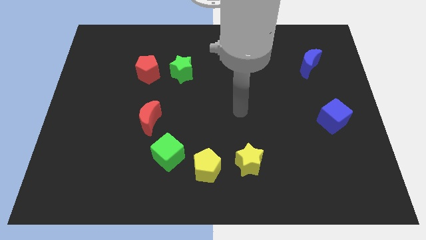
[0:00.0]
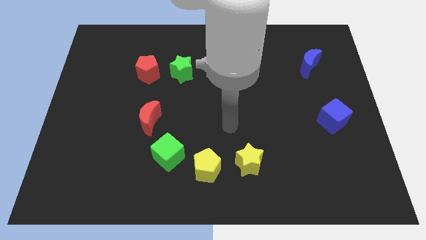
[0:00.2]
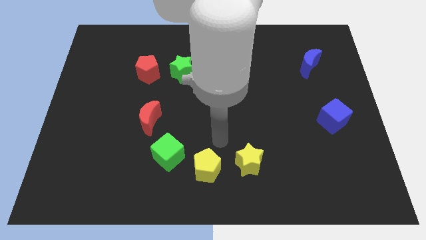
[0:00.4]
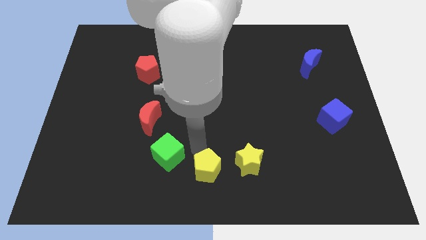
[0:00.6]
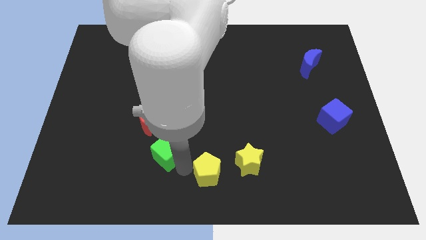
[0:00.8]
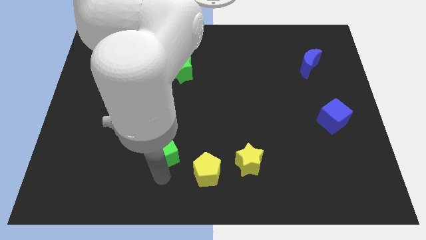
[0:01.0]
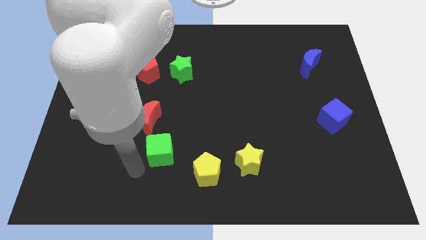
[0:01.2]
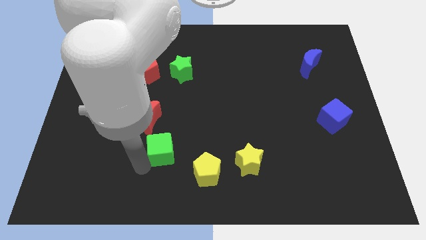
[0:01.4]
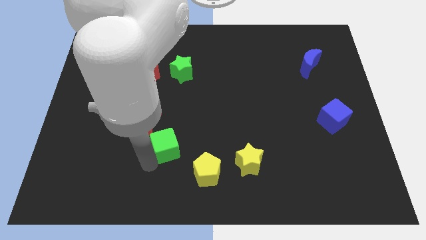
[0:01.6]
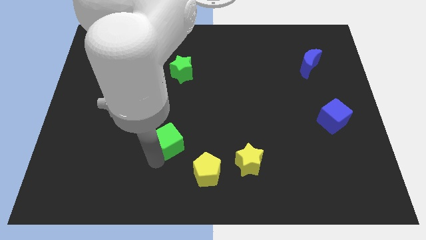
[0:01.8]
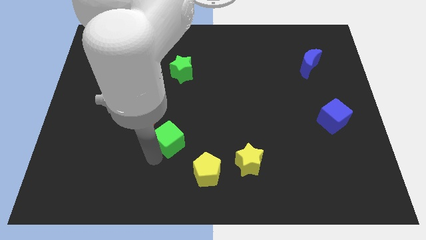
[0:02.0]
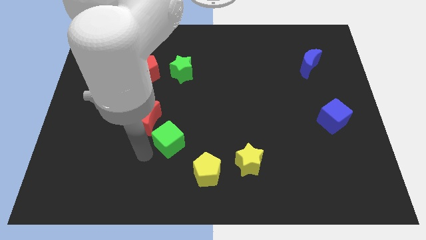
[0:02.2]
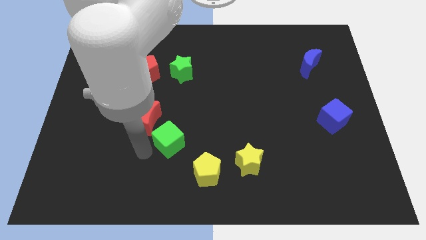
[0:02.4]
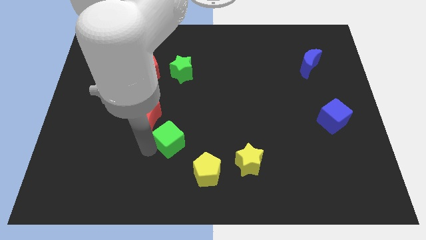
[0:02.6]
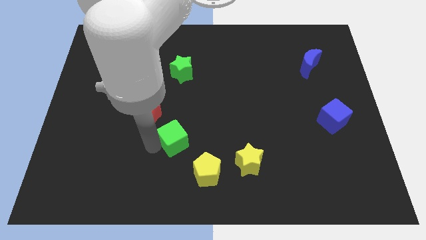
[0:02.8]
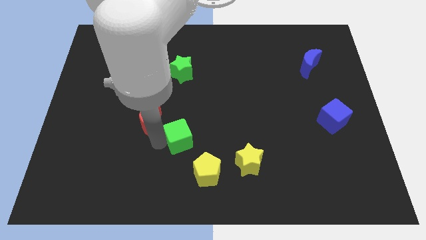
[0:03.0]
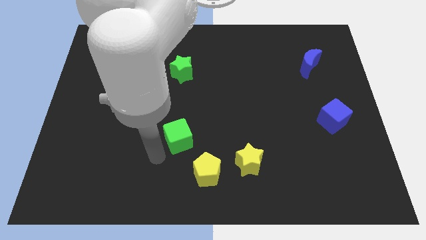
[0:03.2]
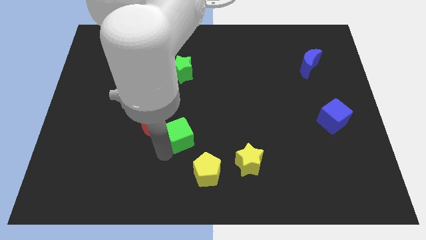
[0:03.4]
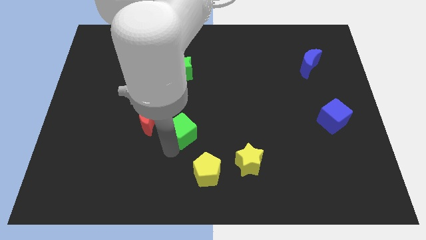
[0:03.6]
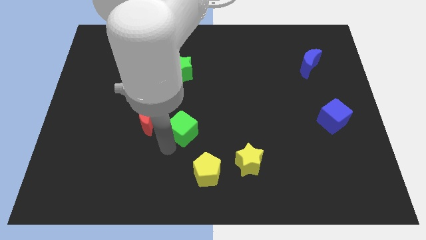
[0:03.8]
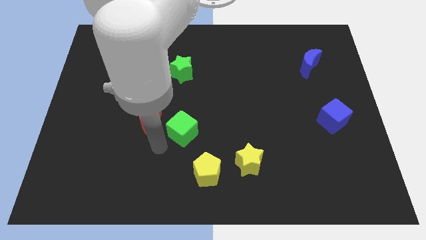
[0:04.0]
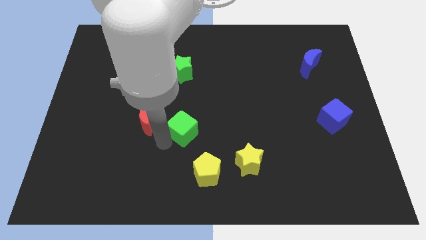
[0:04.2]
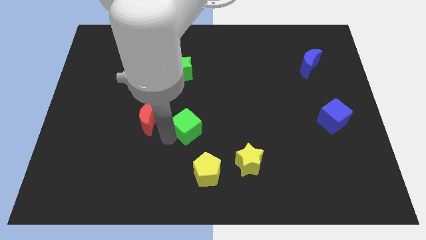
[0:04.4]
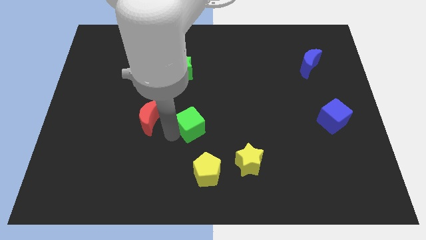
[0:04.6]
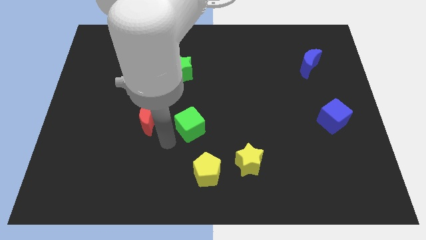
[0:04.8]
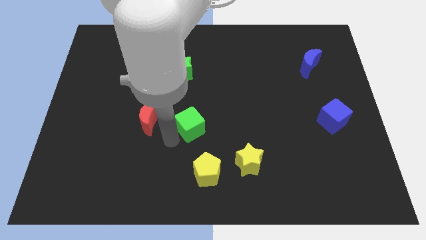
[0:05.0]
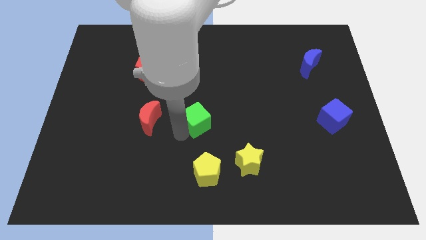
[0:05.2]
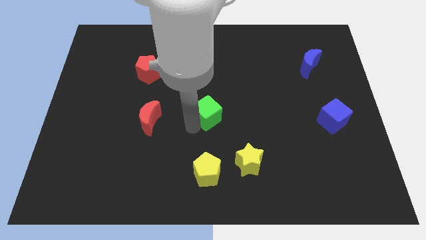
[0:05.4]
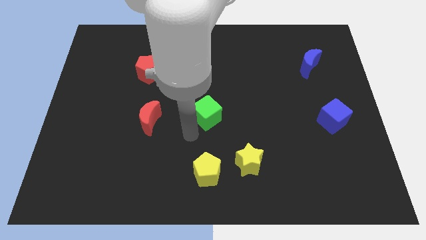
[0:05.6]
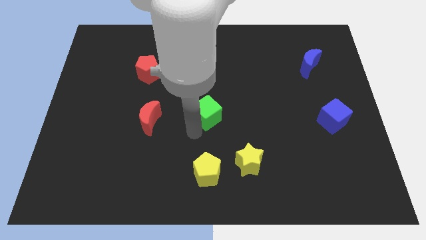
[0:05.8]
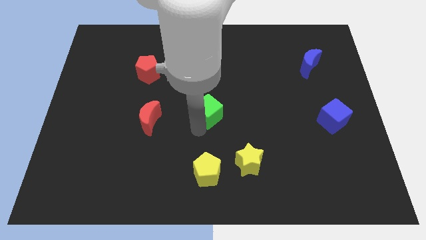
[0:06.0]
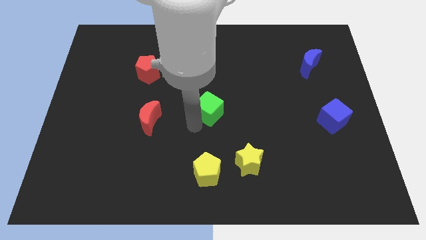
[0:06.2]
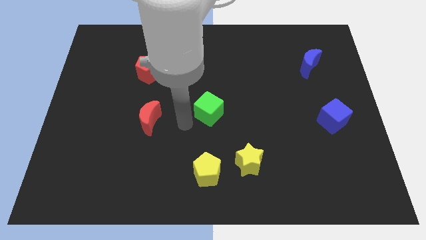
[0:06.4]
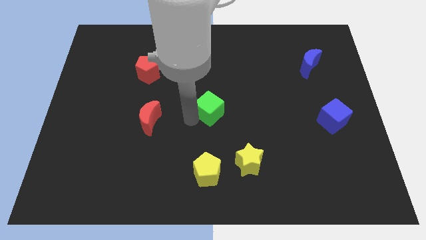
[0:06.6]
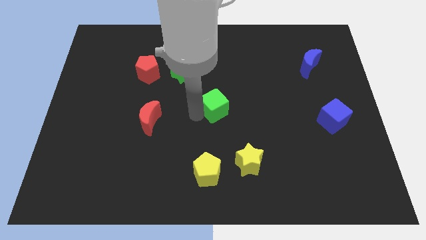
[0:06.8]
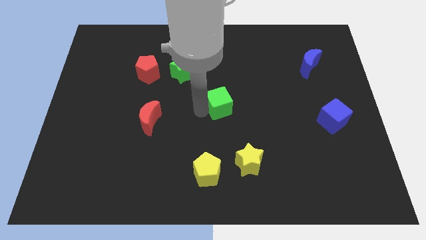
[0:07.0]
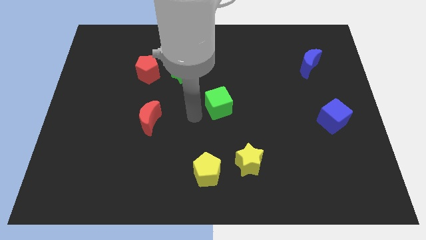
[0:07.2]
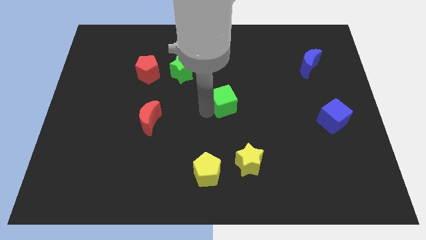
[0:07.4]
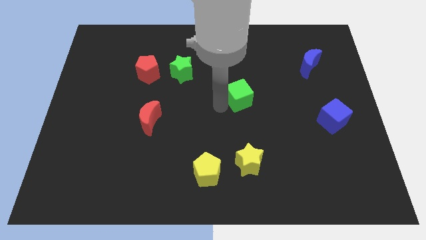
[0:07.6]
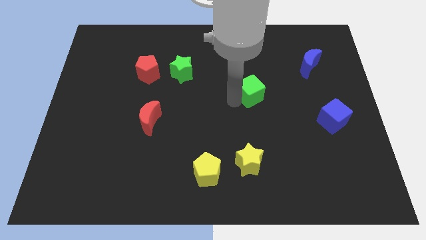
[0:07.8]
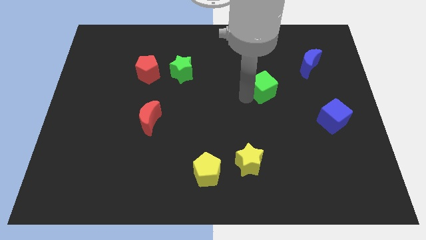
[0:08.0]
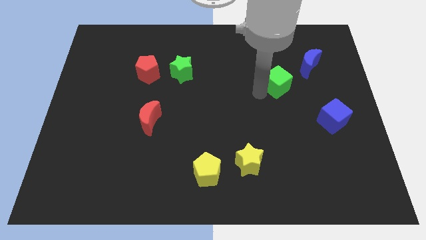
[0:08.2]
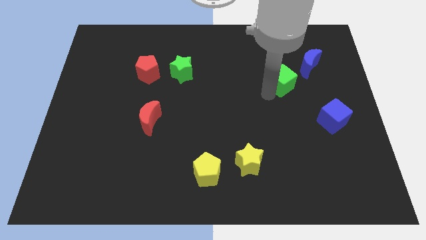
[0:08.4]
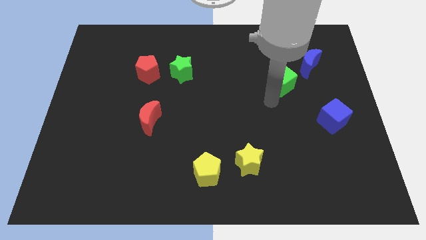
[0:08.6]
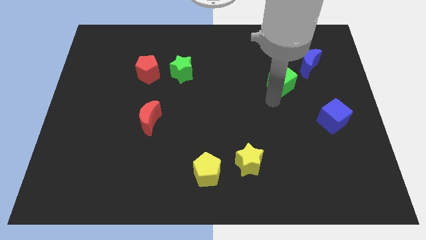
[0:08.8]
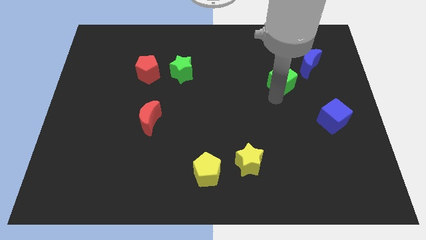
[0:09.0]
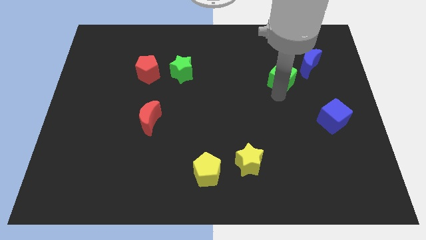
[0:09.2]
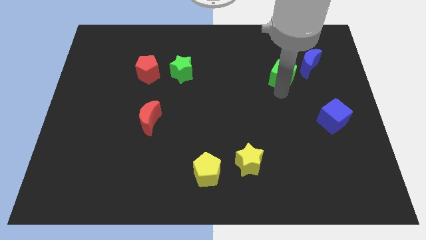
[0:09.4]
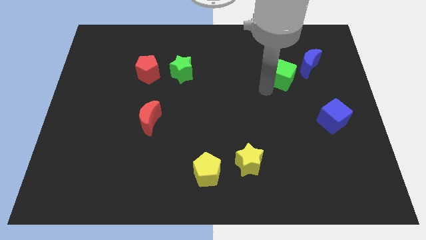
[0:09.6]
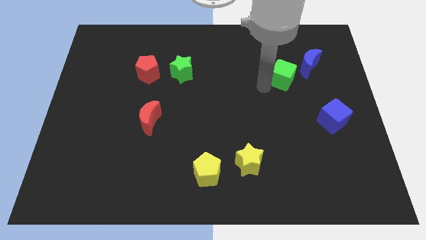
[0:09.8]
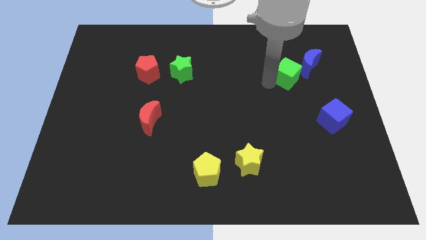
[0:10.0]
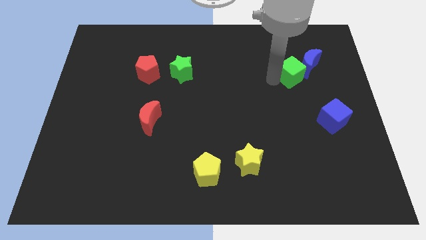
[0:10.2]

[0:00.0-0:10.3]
move the green cube to the blue moon

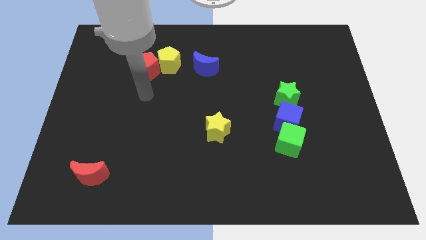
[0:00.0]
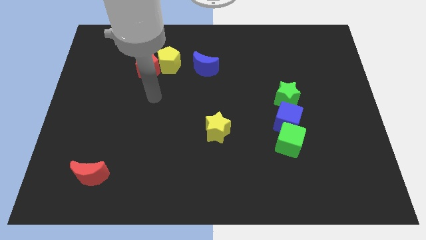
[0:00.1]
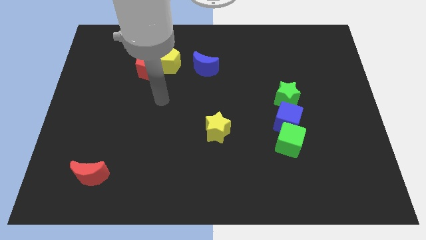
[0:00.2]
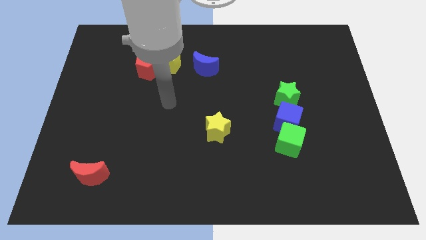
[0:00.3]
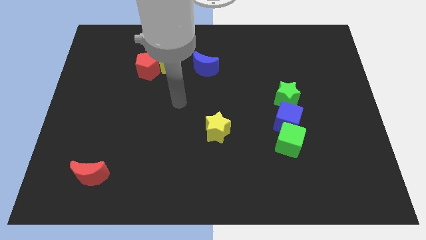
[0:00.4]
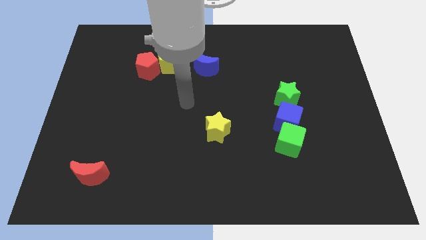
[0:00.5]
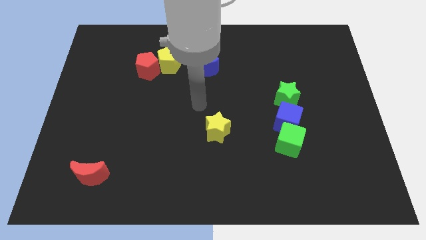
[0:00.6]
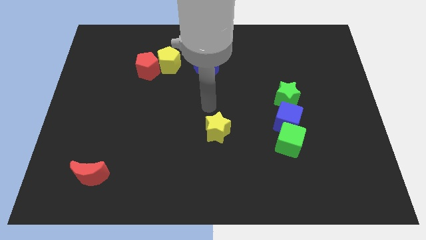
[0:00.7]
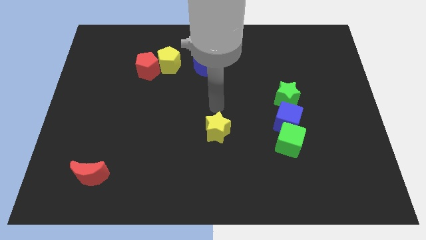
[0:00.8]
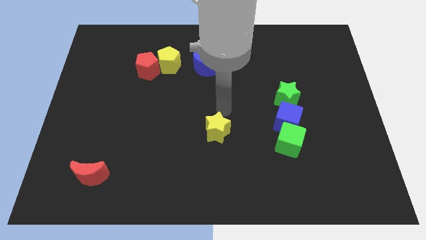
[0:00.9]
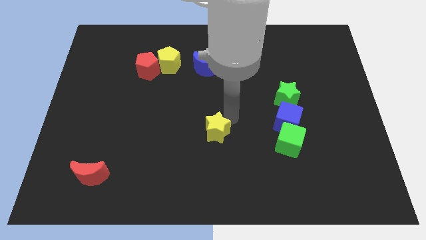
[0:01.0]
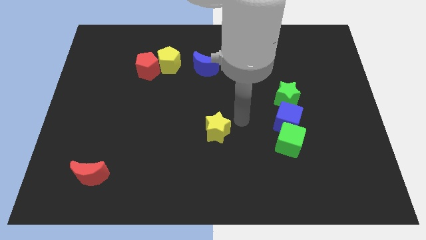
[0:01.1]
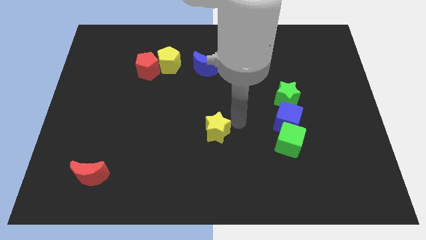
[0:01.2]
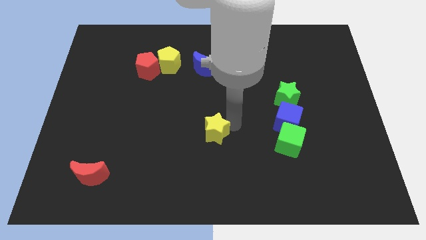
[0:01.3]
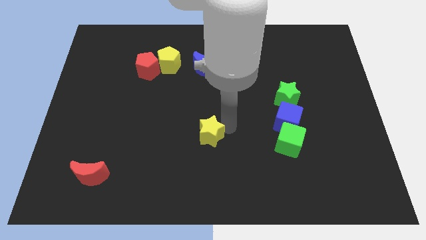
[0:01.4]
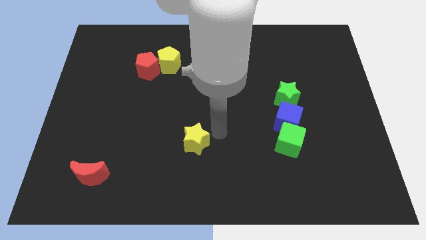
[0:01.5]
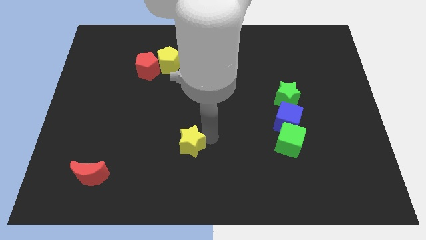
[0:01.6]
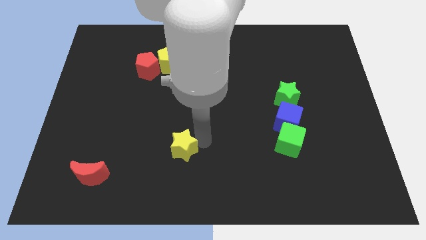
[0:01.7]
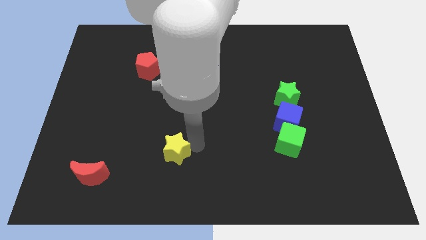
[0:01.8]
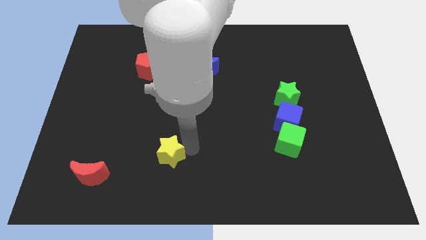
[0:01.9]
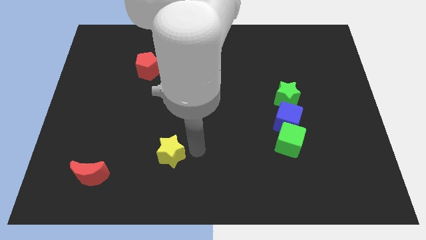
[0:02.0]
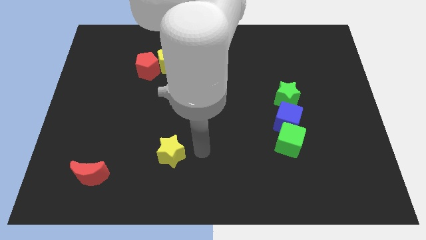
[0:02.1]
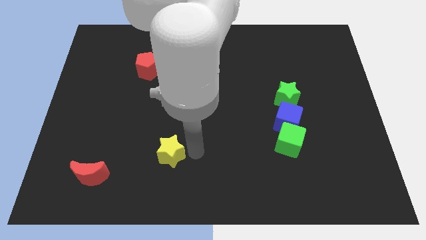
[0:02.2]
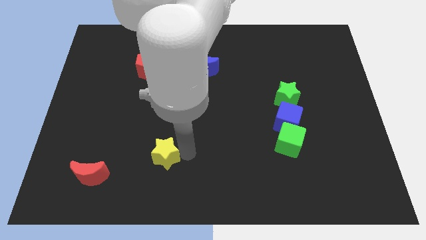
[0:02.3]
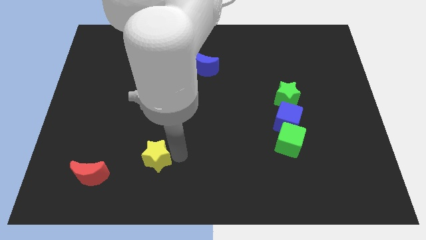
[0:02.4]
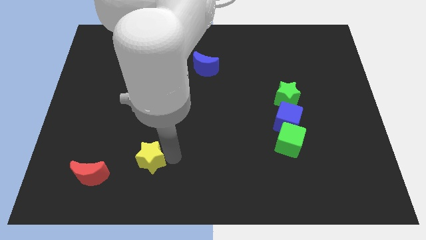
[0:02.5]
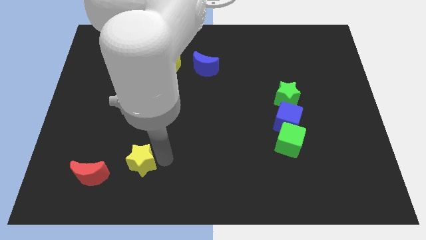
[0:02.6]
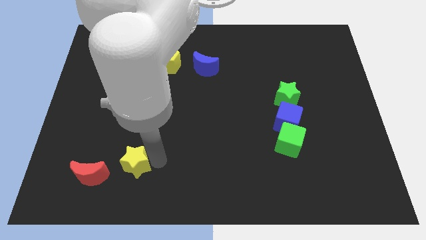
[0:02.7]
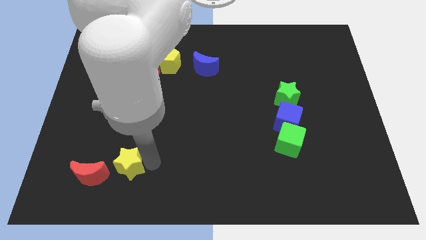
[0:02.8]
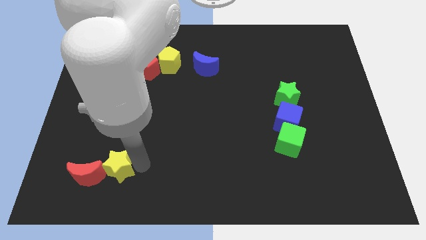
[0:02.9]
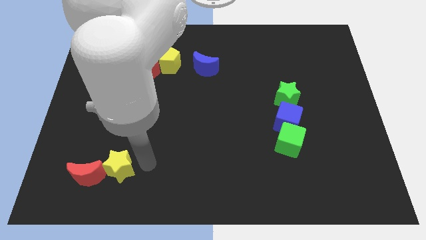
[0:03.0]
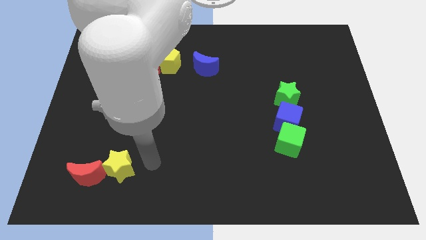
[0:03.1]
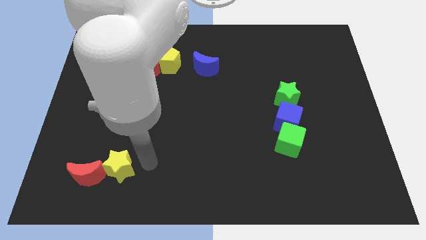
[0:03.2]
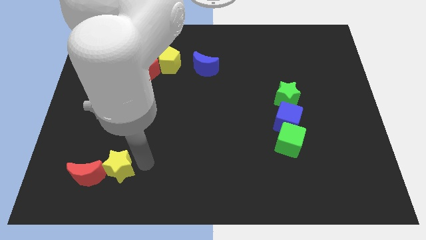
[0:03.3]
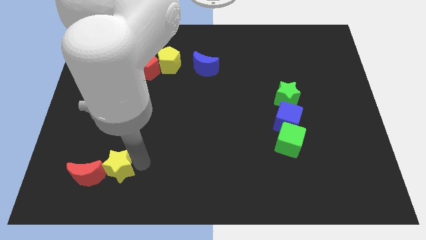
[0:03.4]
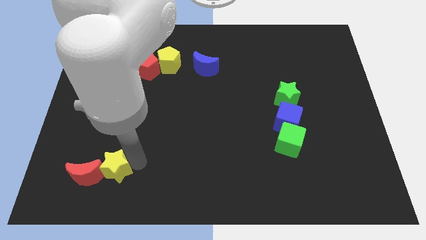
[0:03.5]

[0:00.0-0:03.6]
slide the yellow star to the red moon
